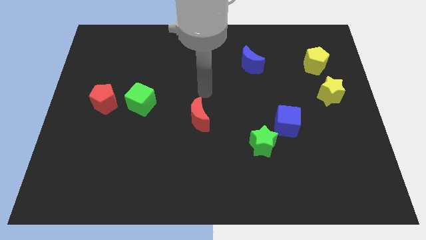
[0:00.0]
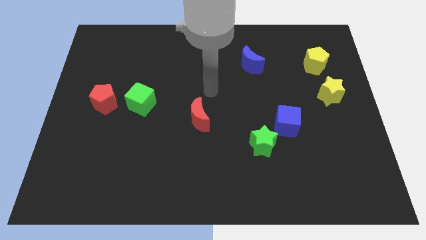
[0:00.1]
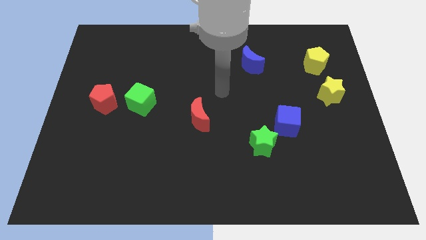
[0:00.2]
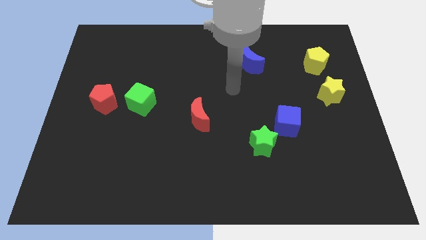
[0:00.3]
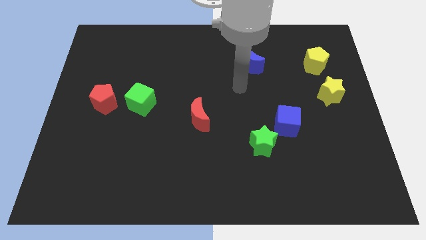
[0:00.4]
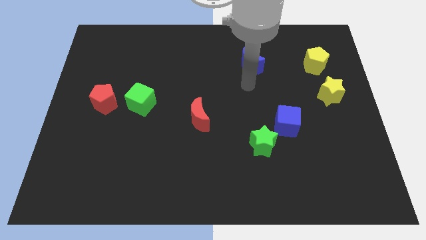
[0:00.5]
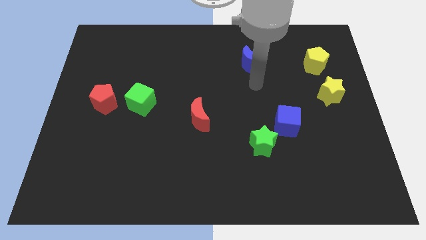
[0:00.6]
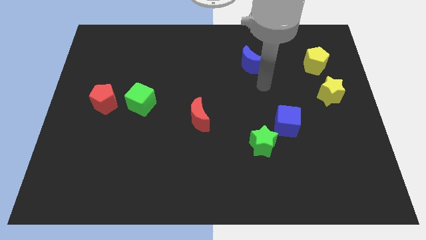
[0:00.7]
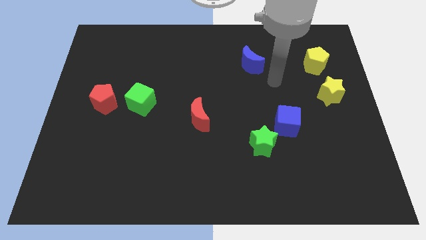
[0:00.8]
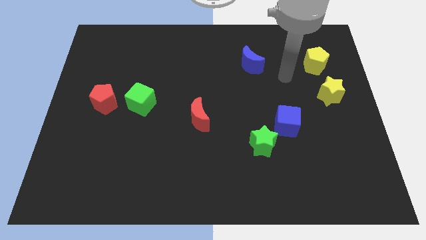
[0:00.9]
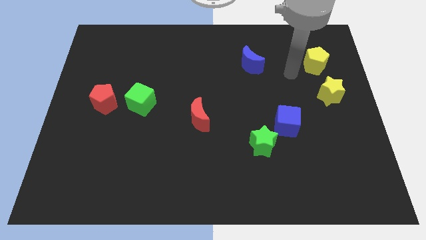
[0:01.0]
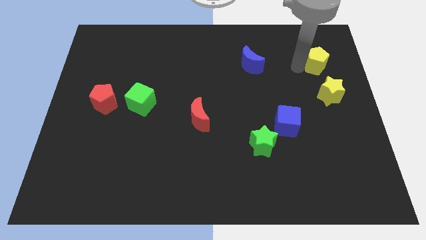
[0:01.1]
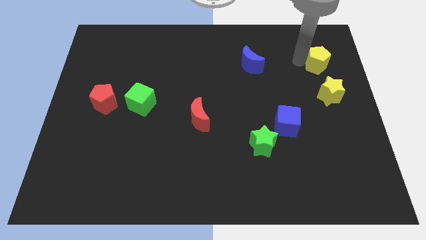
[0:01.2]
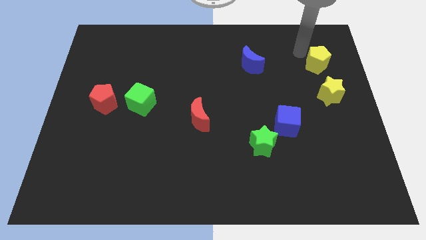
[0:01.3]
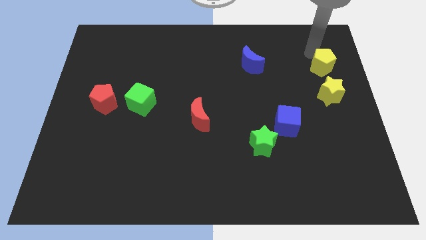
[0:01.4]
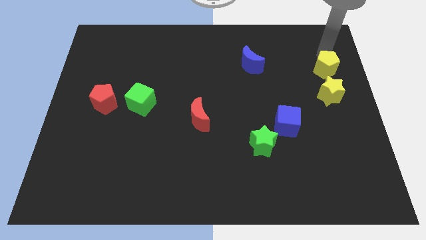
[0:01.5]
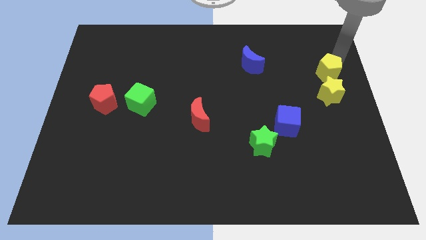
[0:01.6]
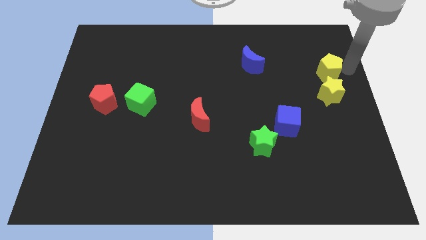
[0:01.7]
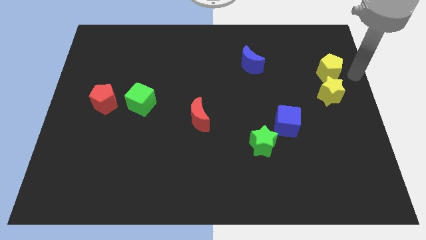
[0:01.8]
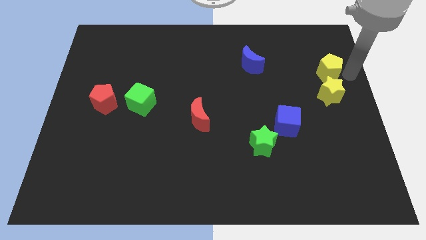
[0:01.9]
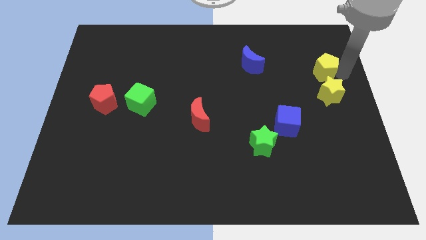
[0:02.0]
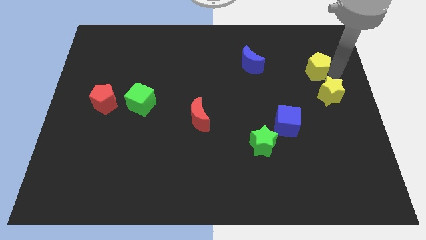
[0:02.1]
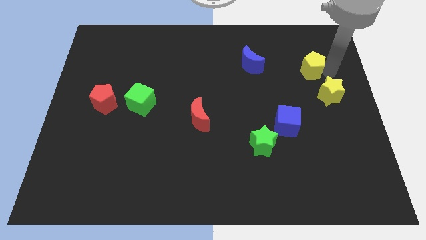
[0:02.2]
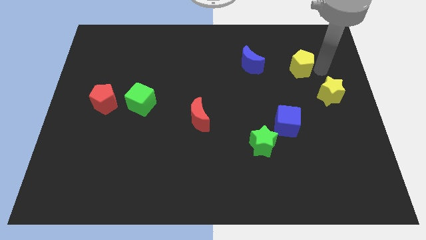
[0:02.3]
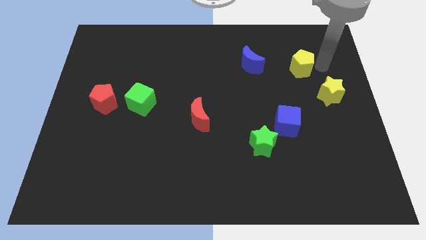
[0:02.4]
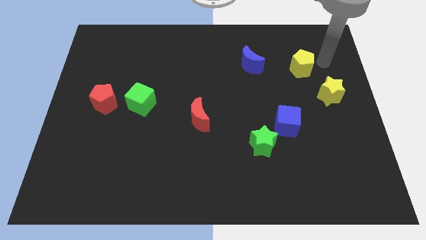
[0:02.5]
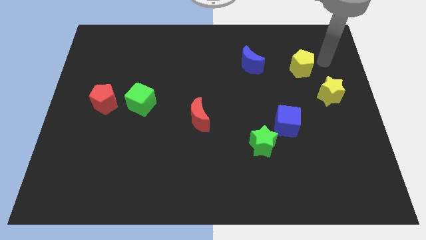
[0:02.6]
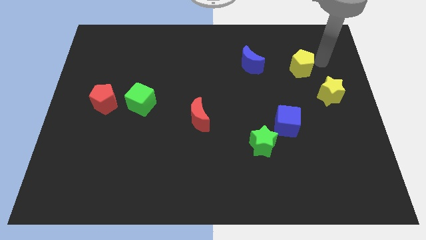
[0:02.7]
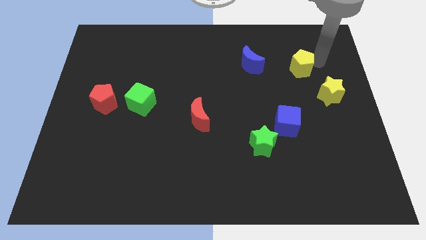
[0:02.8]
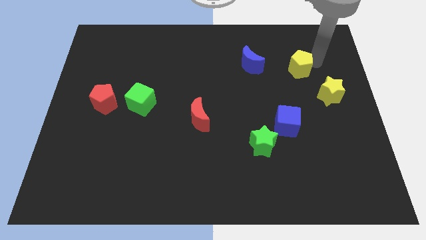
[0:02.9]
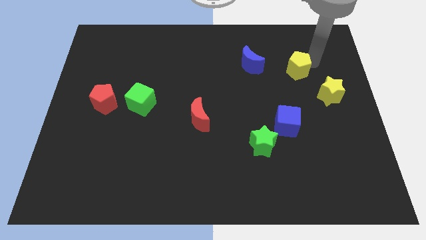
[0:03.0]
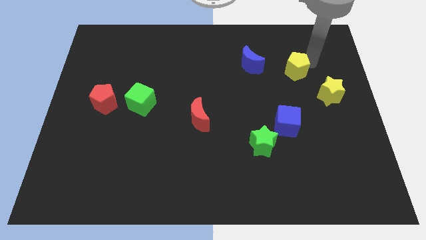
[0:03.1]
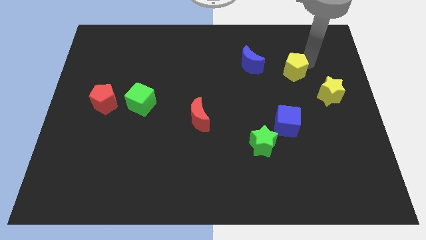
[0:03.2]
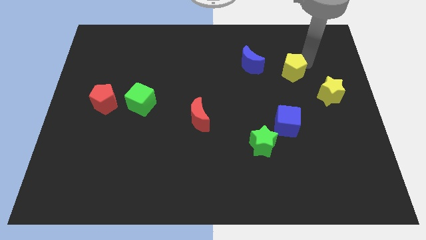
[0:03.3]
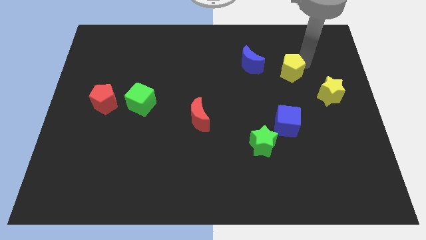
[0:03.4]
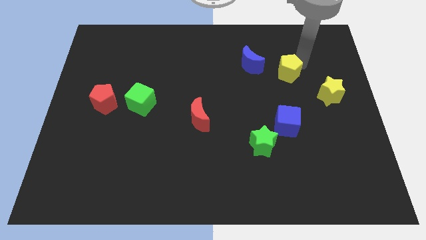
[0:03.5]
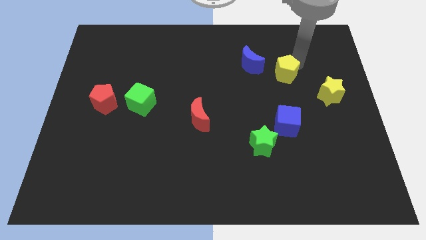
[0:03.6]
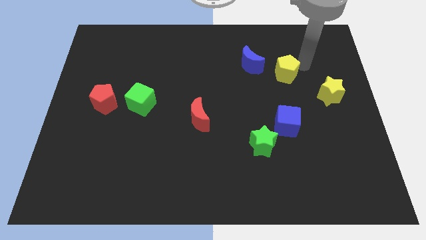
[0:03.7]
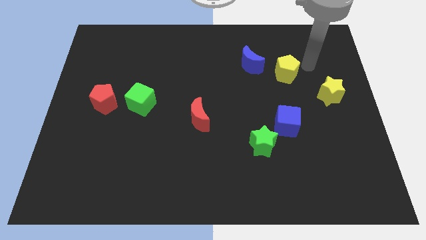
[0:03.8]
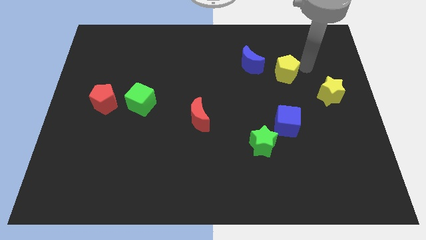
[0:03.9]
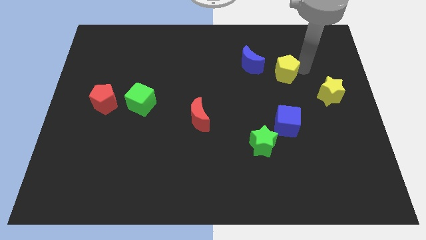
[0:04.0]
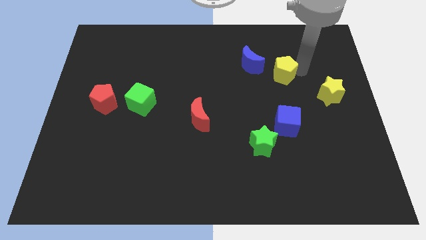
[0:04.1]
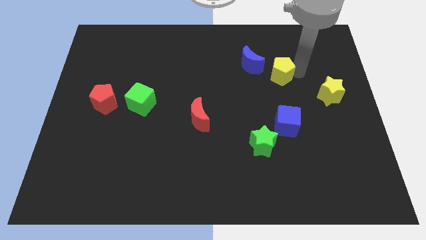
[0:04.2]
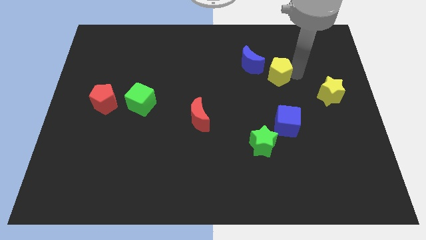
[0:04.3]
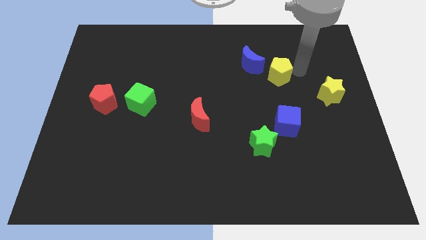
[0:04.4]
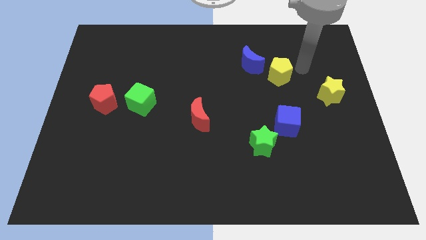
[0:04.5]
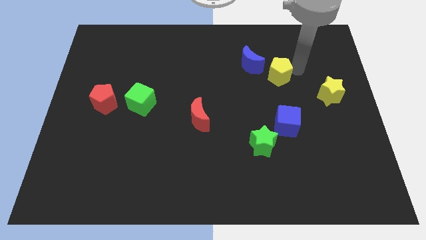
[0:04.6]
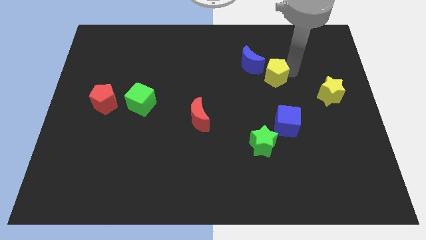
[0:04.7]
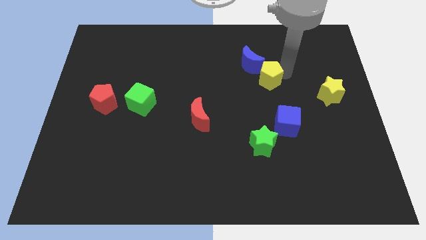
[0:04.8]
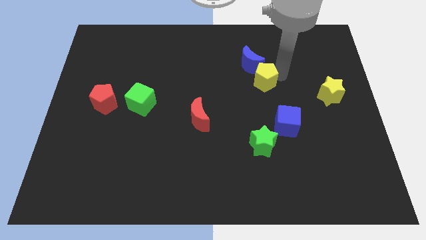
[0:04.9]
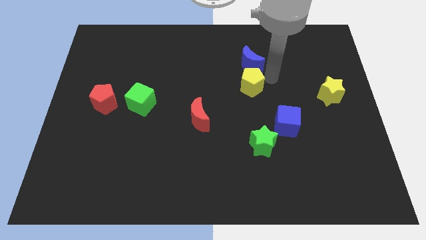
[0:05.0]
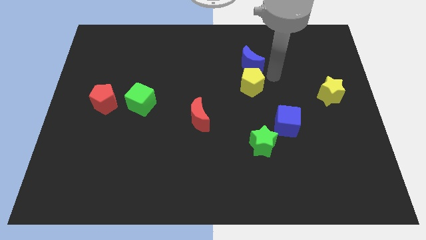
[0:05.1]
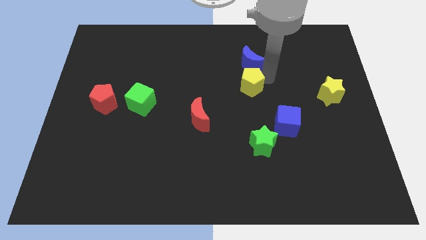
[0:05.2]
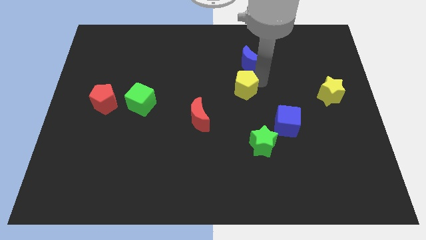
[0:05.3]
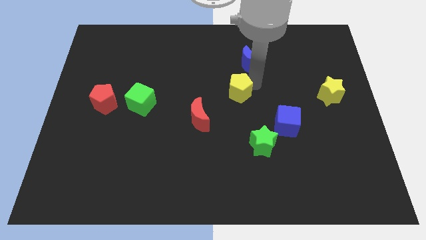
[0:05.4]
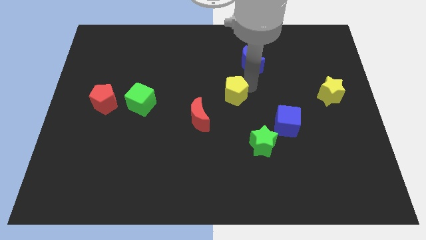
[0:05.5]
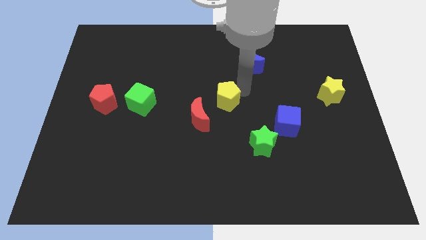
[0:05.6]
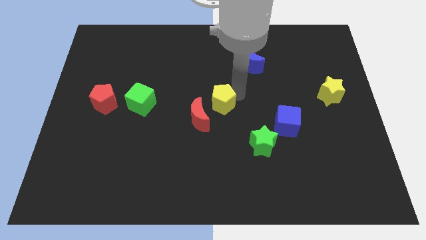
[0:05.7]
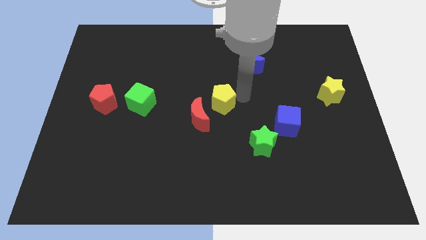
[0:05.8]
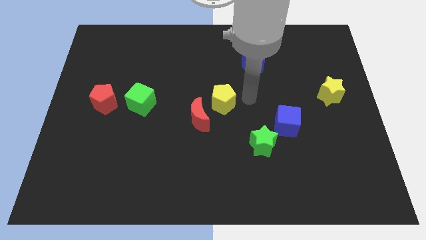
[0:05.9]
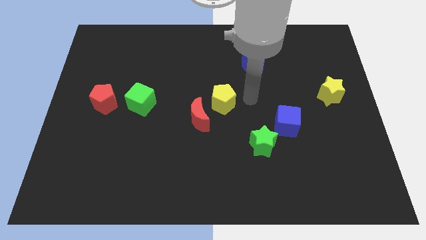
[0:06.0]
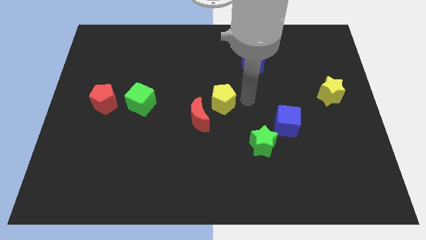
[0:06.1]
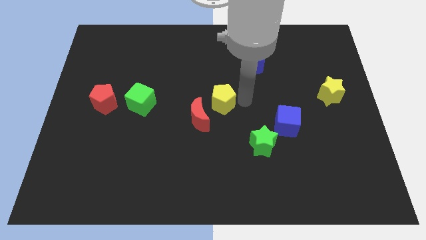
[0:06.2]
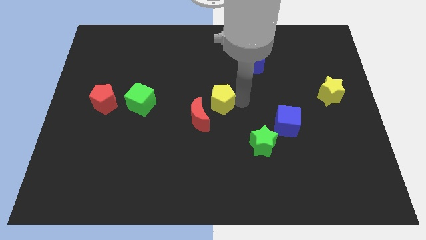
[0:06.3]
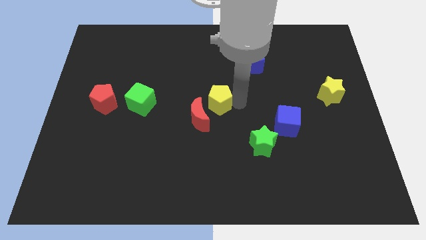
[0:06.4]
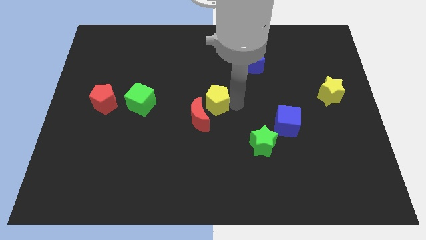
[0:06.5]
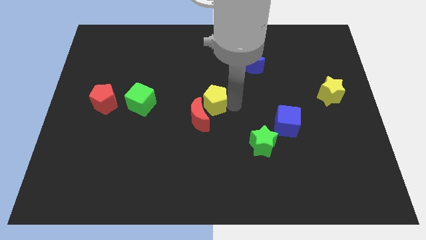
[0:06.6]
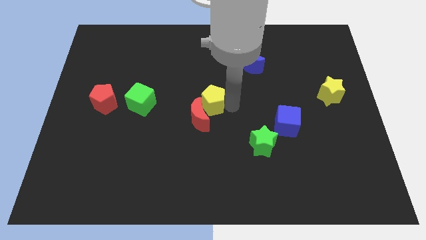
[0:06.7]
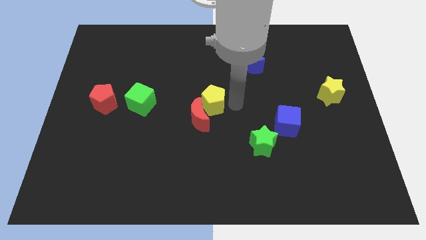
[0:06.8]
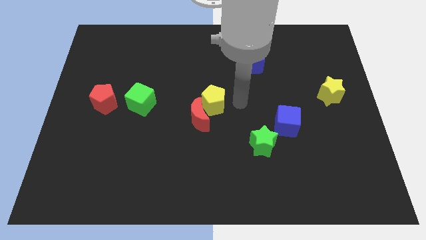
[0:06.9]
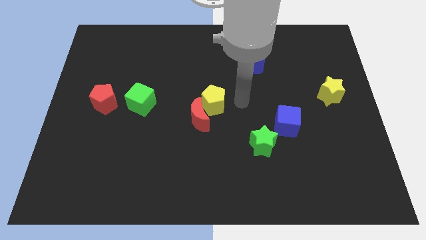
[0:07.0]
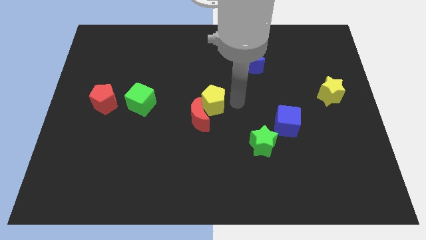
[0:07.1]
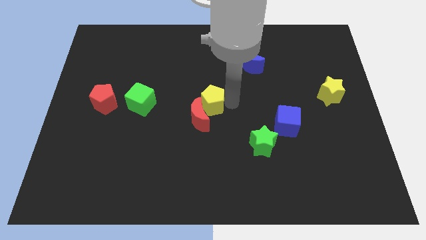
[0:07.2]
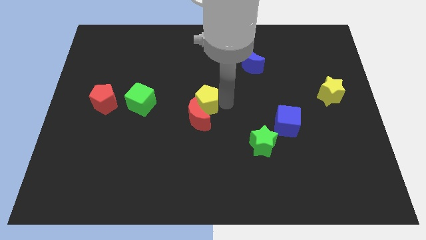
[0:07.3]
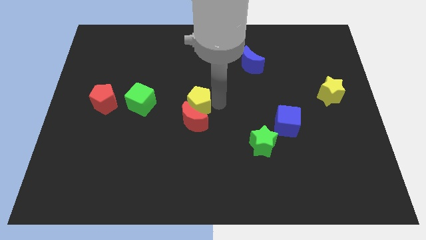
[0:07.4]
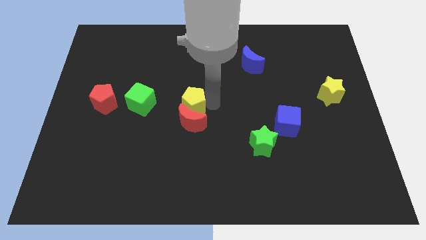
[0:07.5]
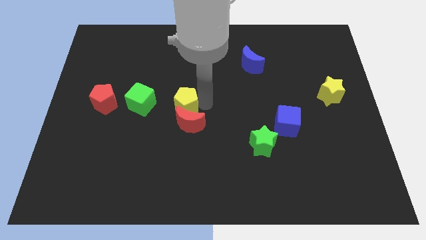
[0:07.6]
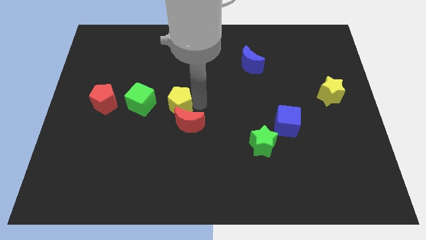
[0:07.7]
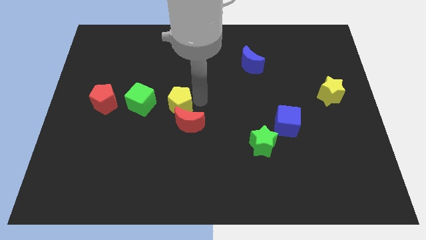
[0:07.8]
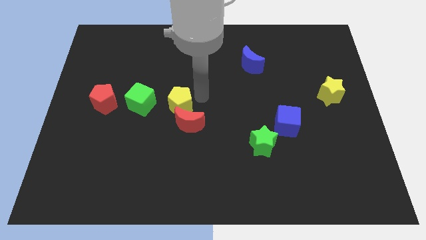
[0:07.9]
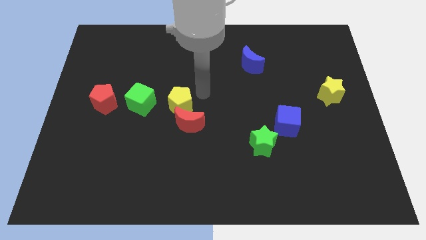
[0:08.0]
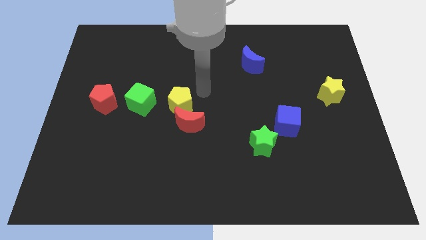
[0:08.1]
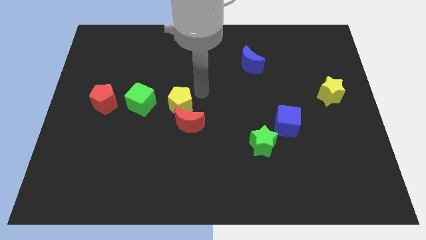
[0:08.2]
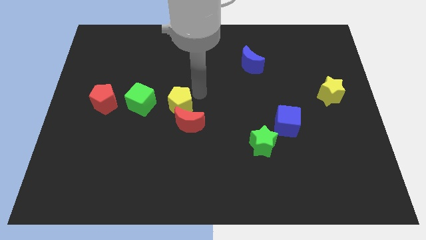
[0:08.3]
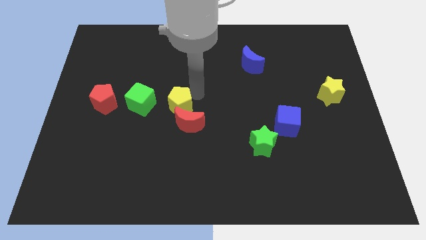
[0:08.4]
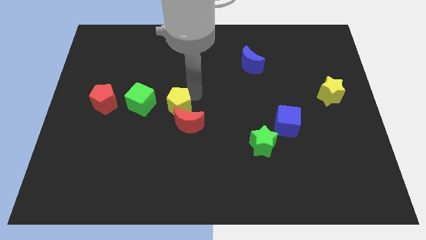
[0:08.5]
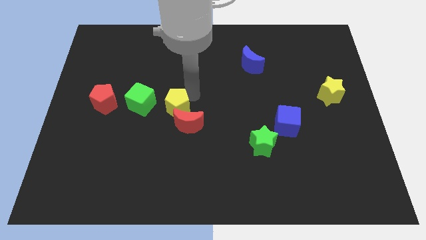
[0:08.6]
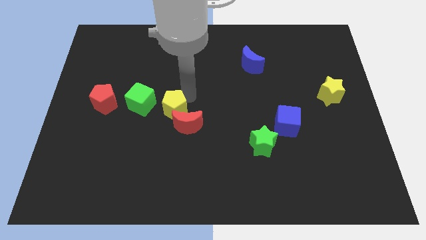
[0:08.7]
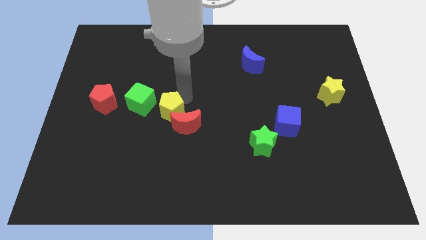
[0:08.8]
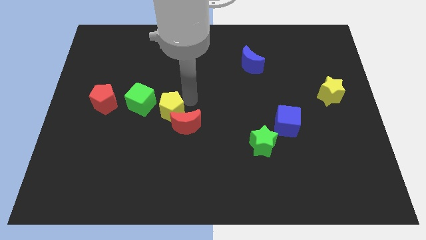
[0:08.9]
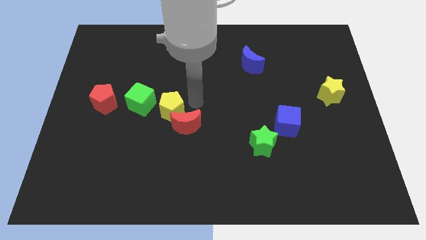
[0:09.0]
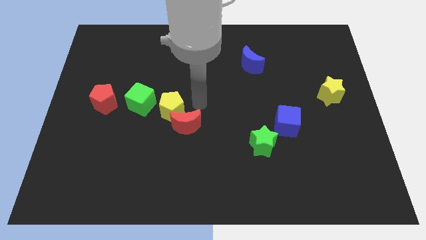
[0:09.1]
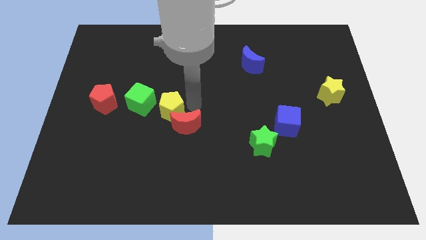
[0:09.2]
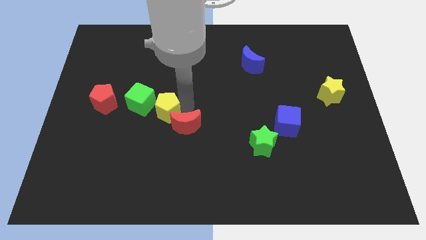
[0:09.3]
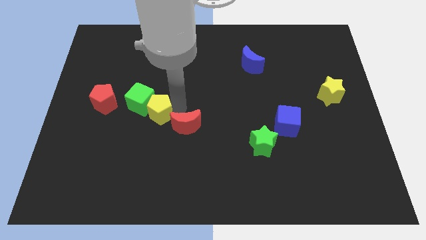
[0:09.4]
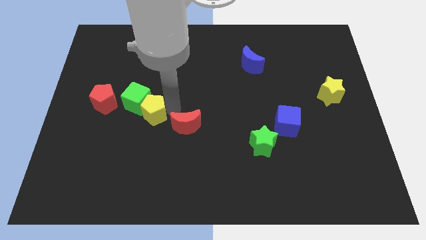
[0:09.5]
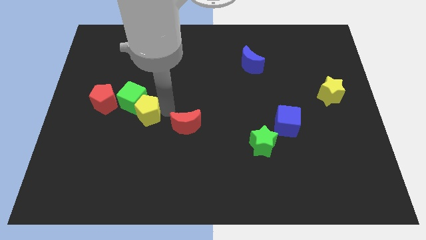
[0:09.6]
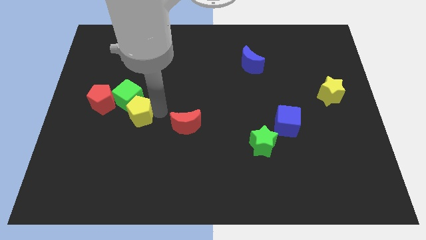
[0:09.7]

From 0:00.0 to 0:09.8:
move the yellow pentagon diagonally down and to the right of the red pentagon
